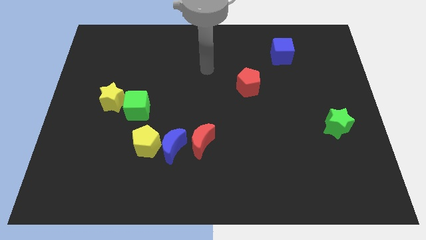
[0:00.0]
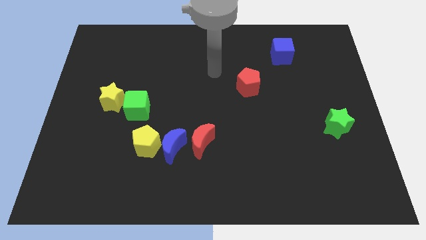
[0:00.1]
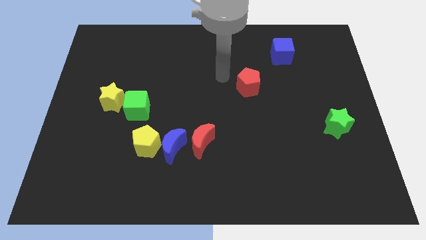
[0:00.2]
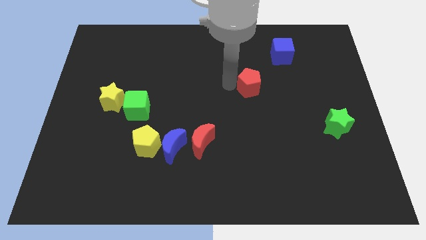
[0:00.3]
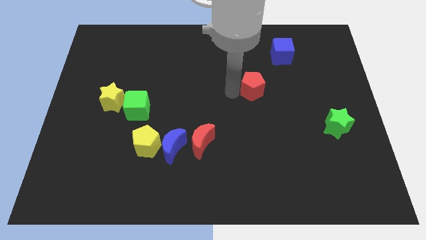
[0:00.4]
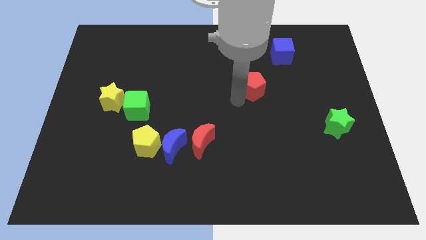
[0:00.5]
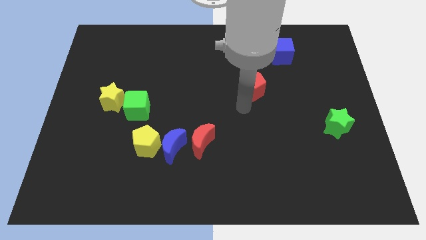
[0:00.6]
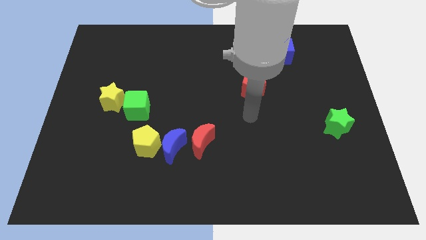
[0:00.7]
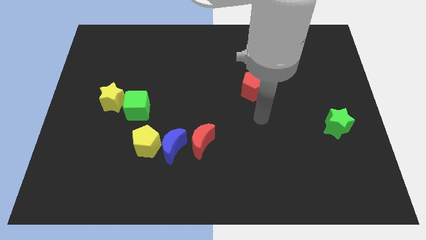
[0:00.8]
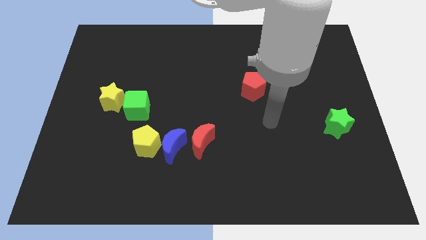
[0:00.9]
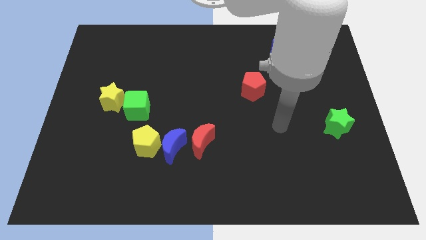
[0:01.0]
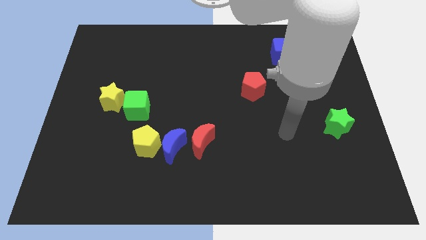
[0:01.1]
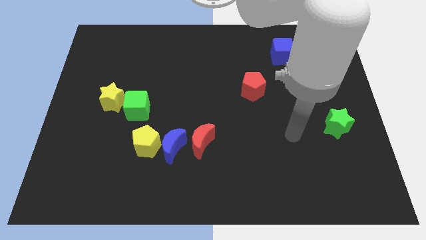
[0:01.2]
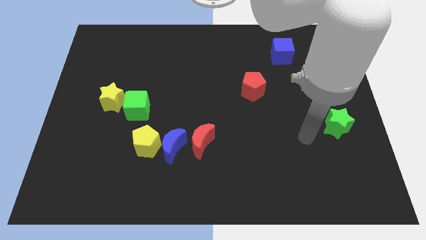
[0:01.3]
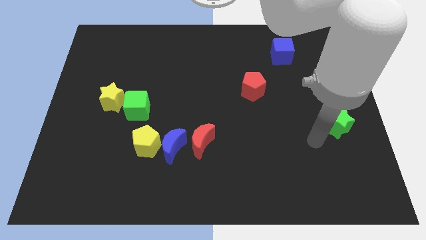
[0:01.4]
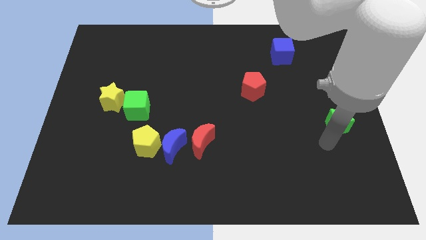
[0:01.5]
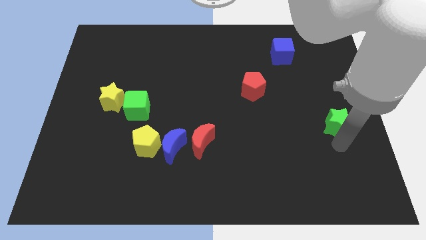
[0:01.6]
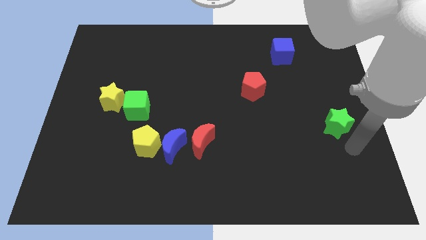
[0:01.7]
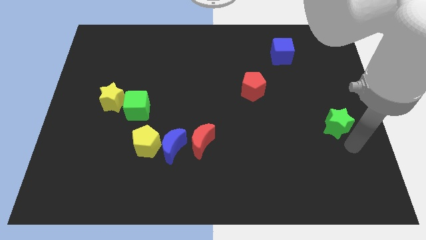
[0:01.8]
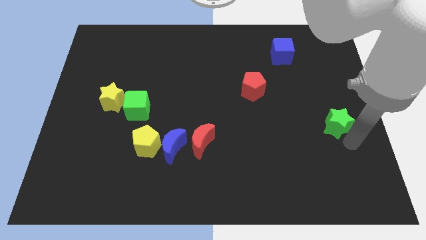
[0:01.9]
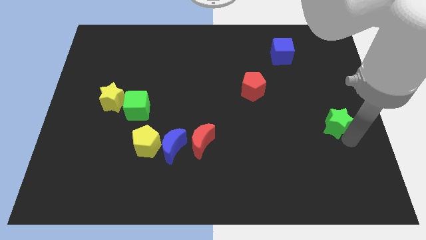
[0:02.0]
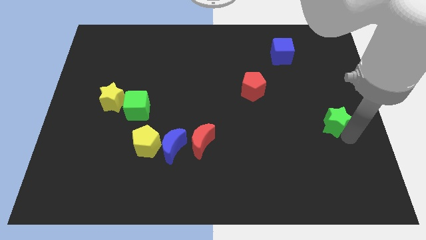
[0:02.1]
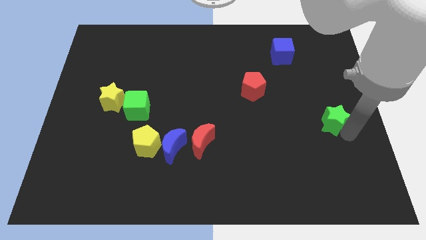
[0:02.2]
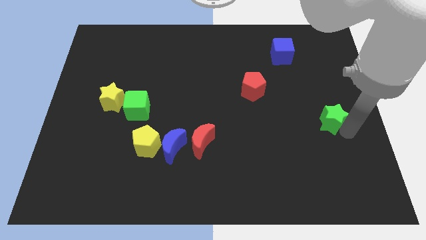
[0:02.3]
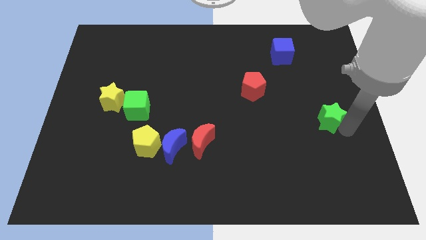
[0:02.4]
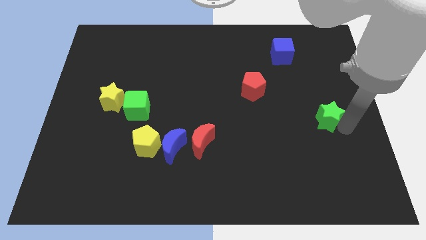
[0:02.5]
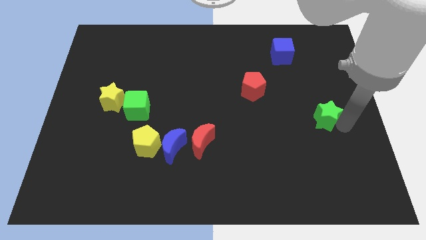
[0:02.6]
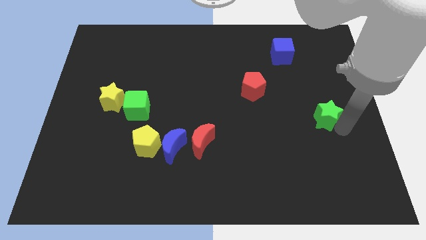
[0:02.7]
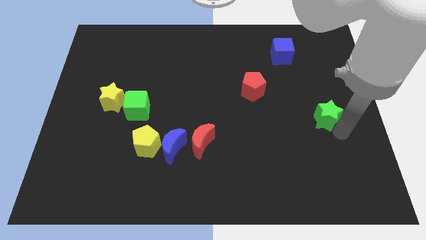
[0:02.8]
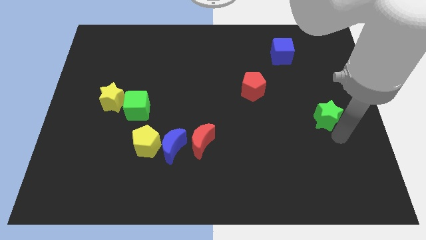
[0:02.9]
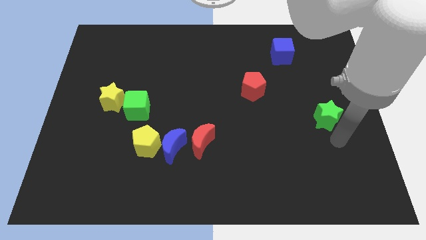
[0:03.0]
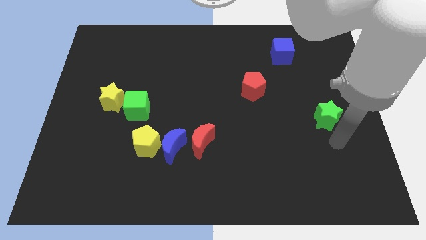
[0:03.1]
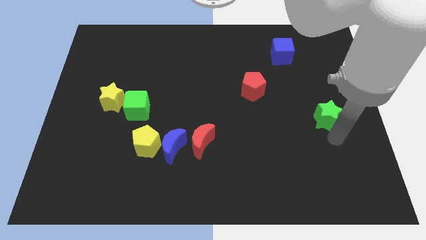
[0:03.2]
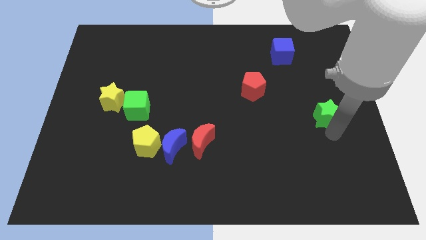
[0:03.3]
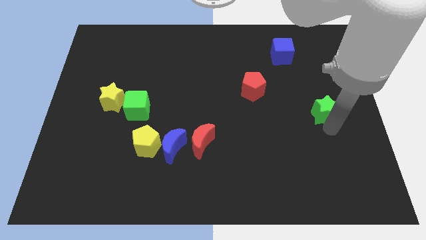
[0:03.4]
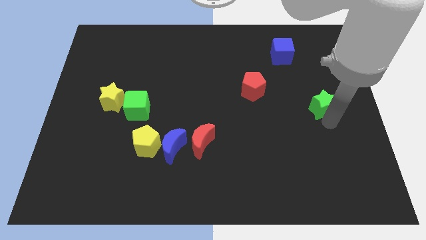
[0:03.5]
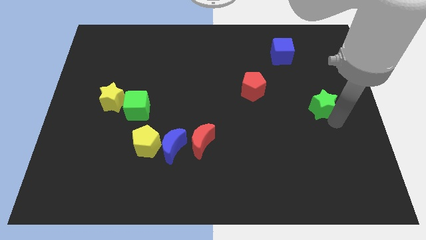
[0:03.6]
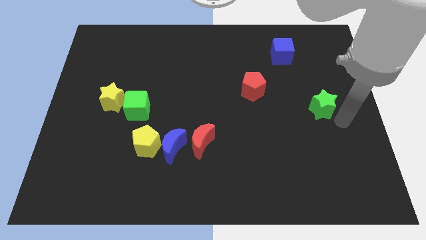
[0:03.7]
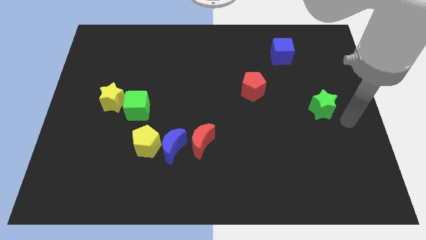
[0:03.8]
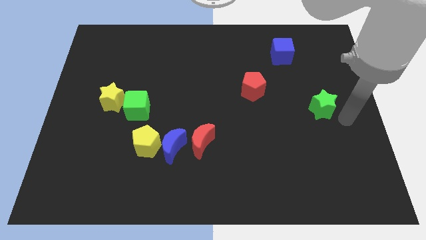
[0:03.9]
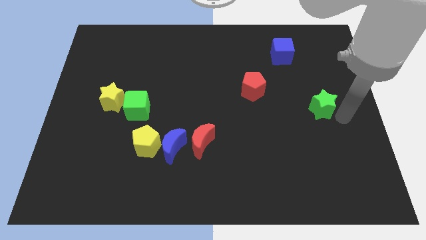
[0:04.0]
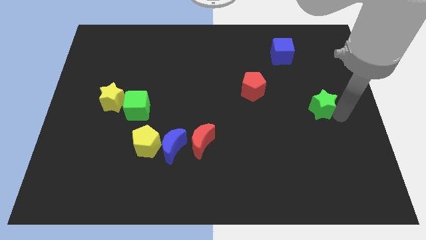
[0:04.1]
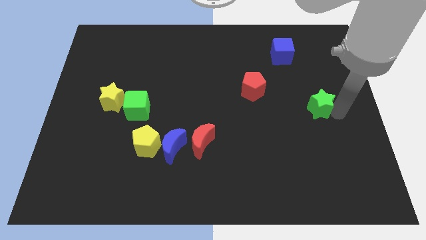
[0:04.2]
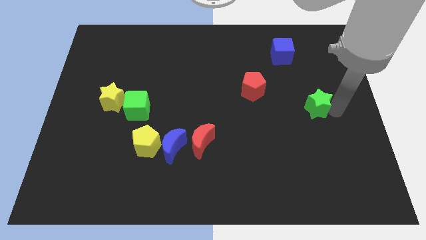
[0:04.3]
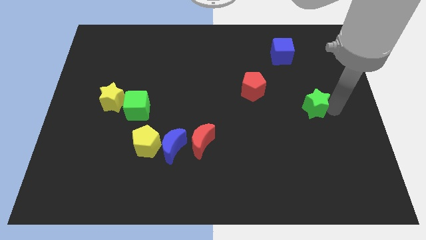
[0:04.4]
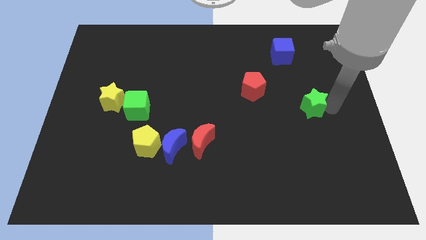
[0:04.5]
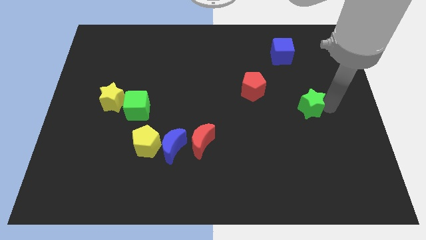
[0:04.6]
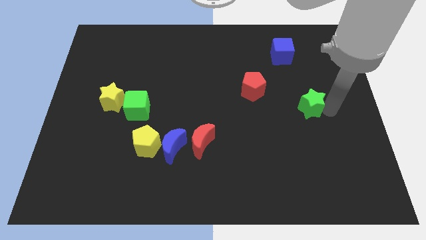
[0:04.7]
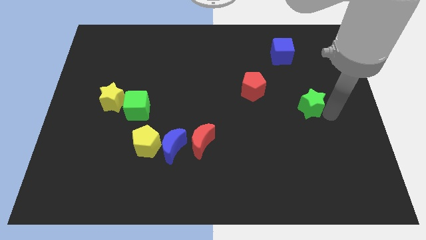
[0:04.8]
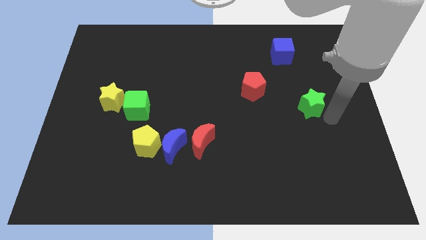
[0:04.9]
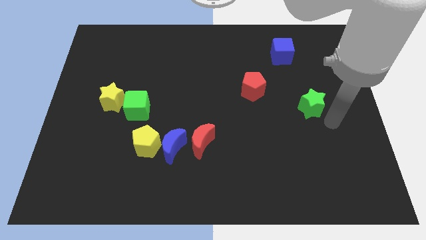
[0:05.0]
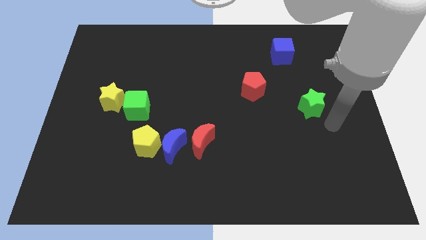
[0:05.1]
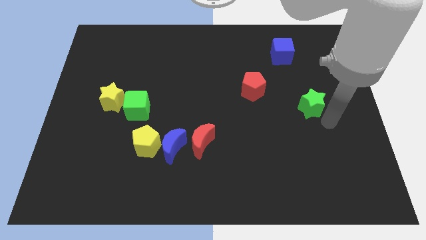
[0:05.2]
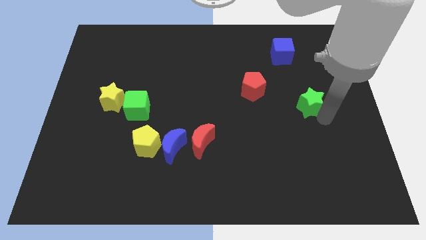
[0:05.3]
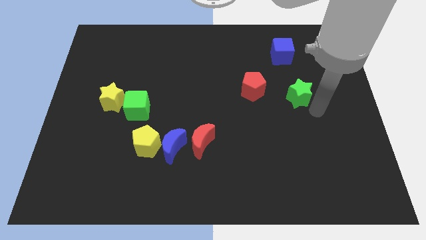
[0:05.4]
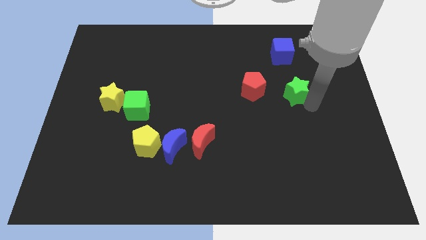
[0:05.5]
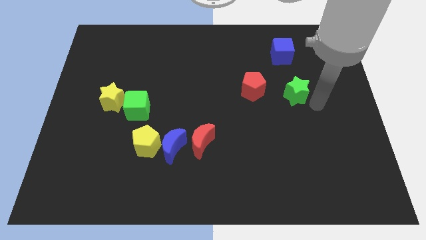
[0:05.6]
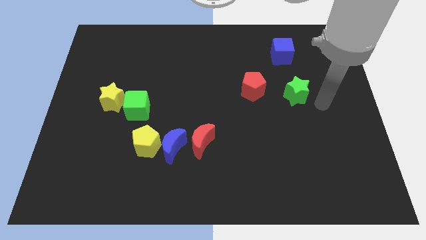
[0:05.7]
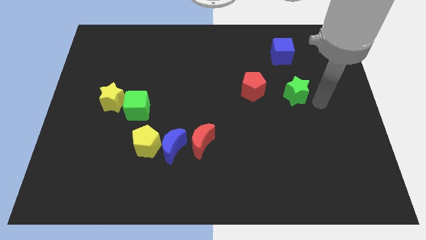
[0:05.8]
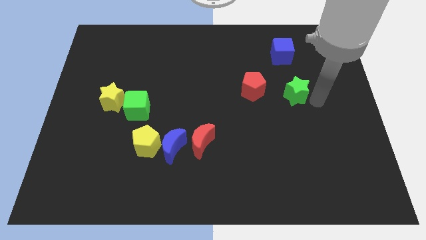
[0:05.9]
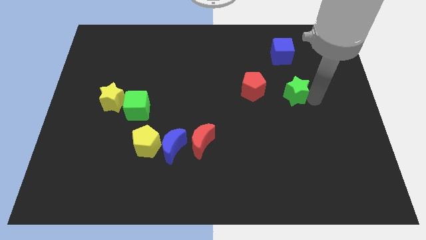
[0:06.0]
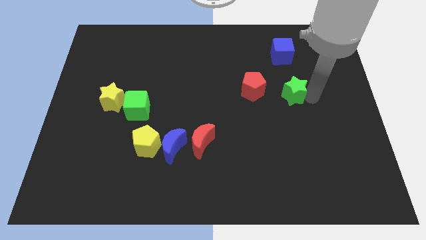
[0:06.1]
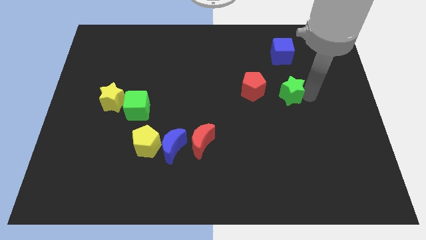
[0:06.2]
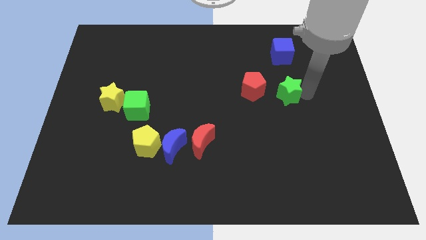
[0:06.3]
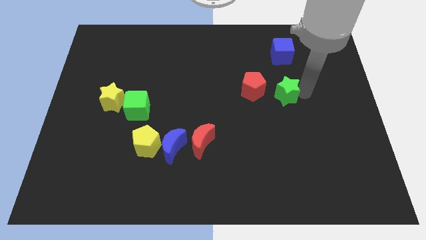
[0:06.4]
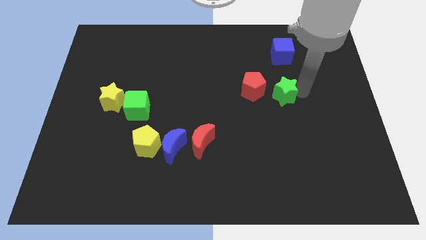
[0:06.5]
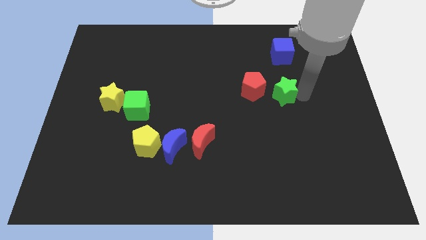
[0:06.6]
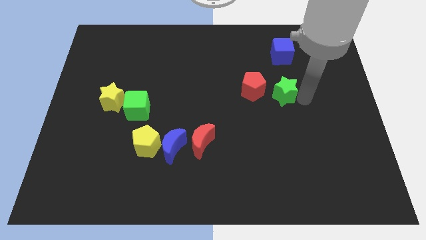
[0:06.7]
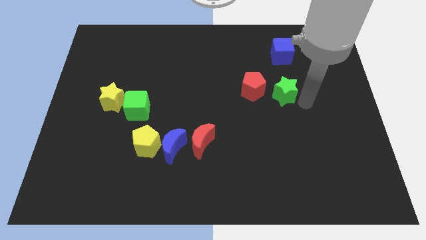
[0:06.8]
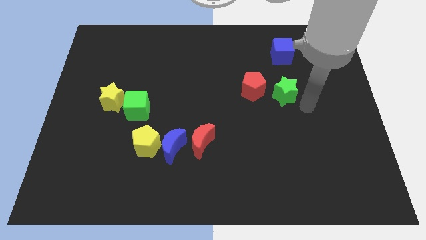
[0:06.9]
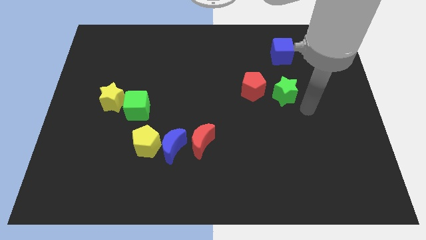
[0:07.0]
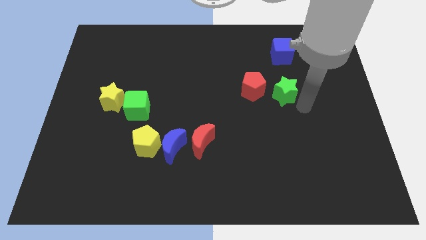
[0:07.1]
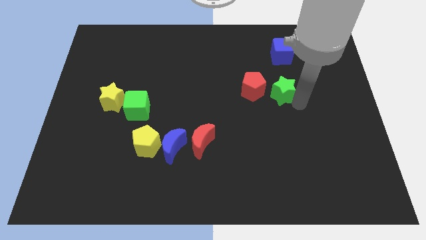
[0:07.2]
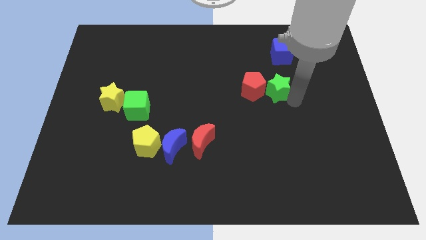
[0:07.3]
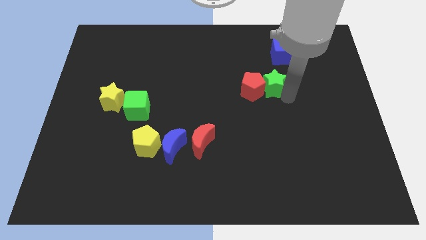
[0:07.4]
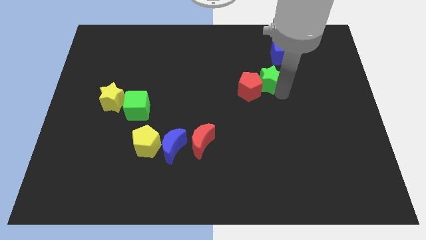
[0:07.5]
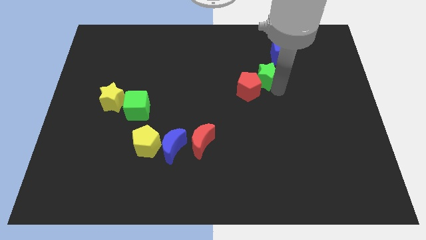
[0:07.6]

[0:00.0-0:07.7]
move the green star upwards and to the left diagonally

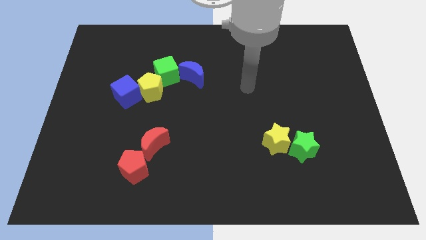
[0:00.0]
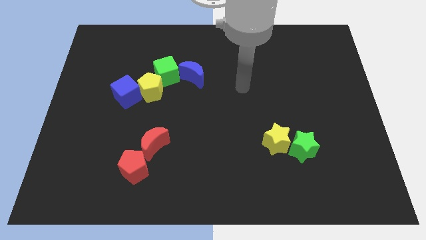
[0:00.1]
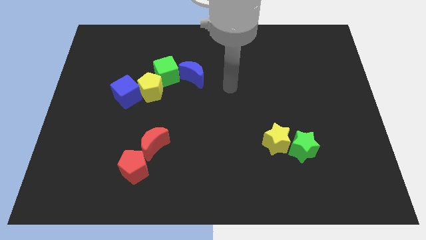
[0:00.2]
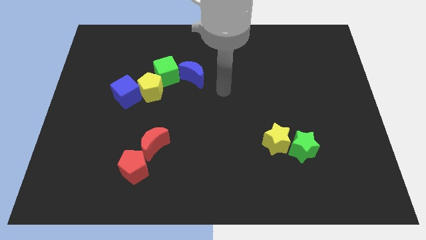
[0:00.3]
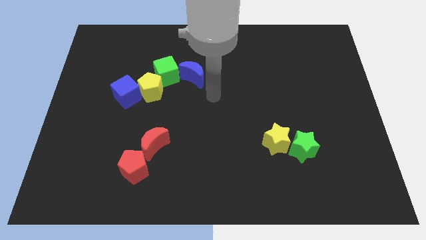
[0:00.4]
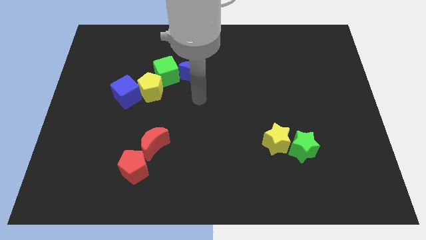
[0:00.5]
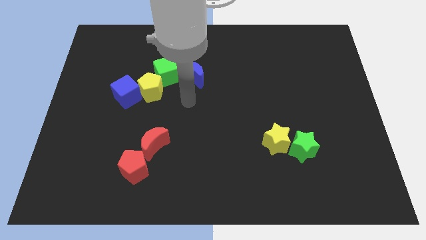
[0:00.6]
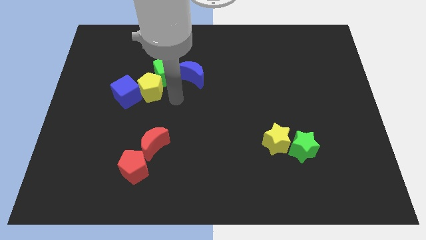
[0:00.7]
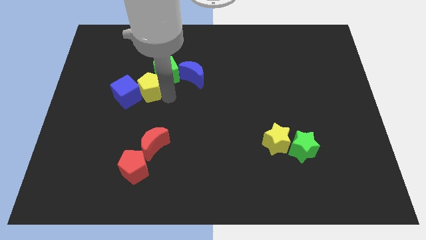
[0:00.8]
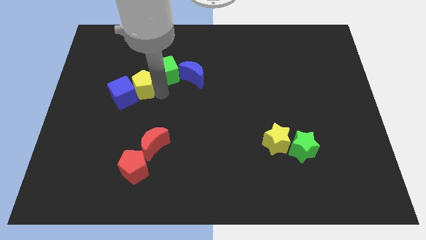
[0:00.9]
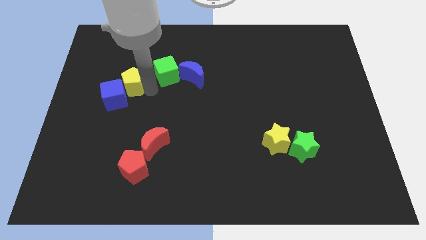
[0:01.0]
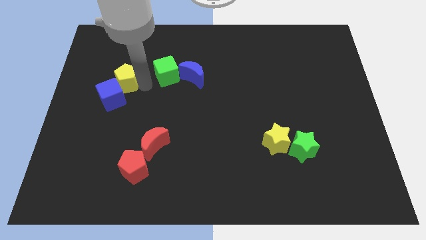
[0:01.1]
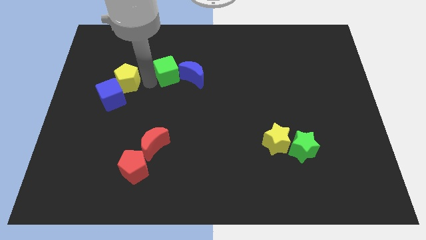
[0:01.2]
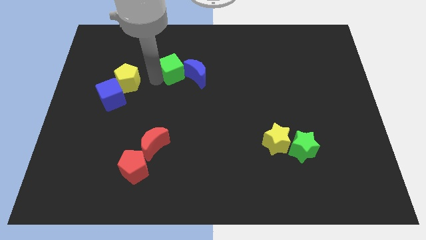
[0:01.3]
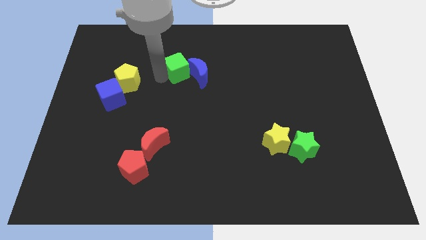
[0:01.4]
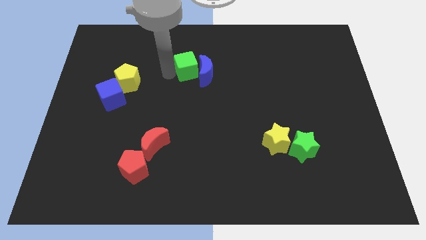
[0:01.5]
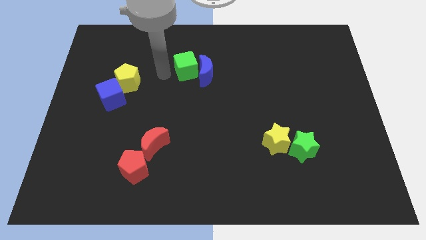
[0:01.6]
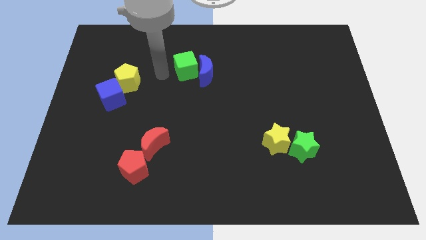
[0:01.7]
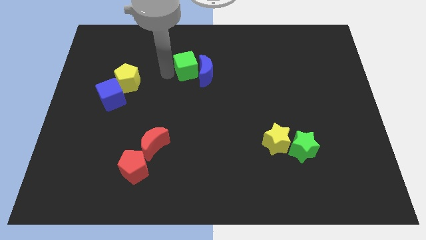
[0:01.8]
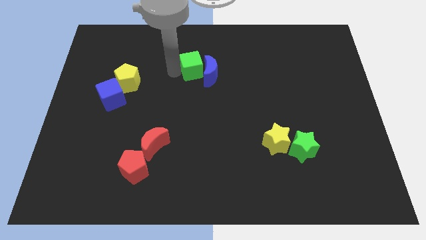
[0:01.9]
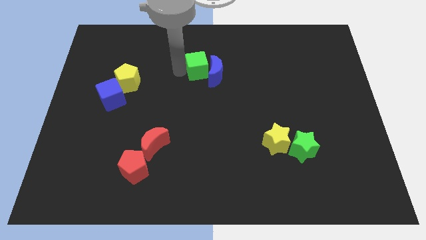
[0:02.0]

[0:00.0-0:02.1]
slide the green cube a little bit to the right
